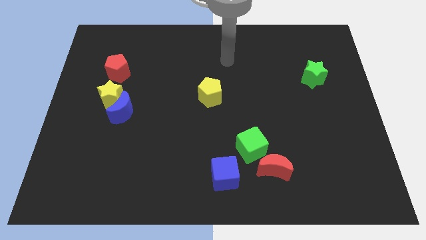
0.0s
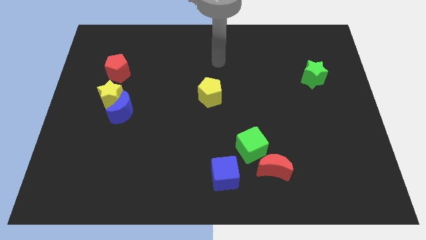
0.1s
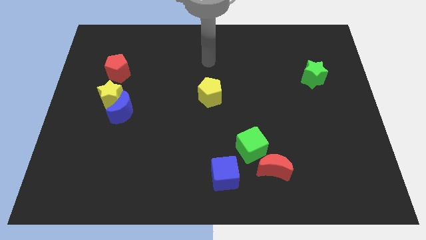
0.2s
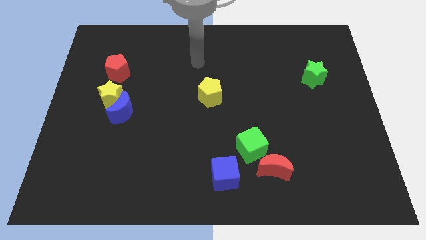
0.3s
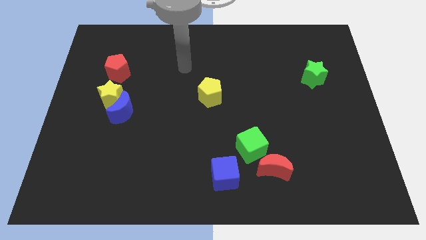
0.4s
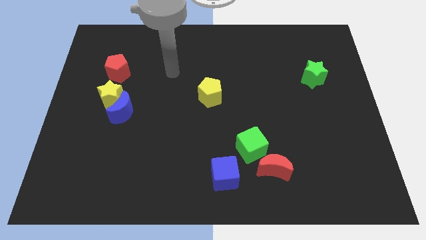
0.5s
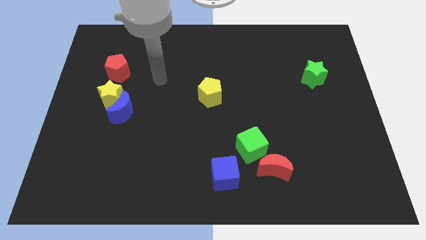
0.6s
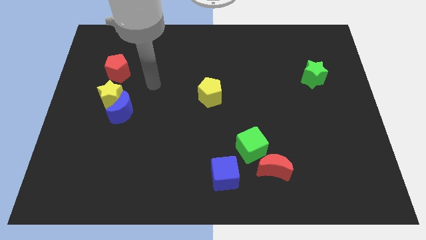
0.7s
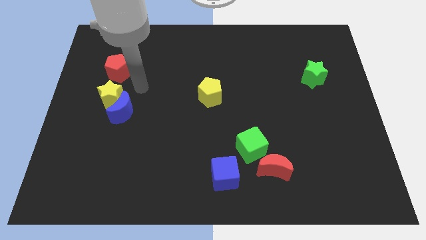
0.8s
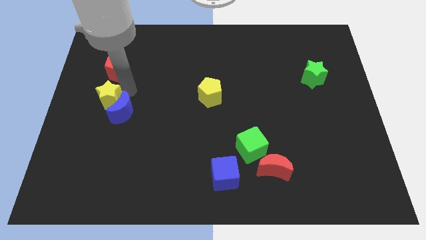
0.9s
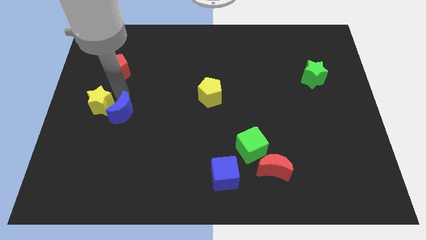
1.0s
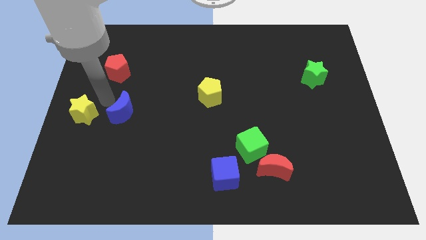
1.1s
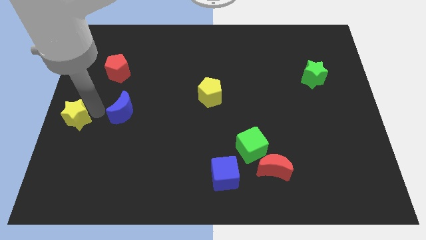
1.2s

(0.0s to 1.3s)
move the blue moon away from the yellow star

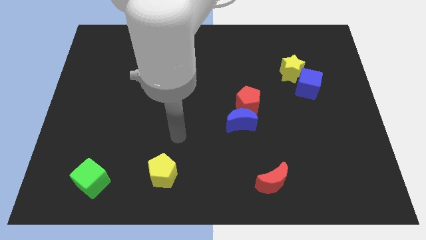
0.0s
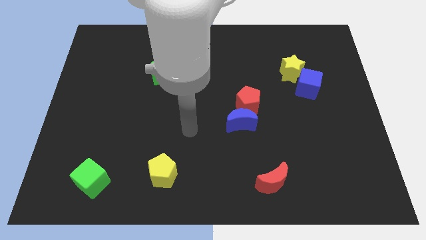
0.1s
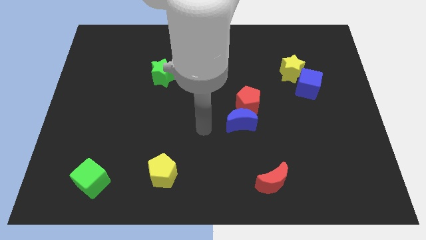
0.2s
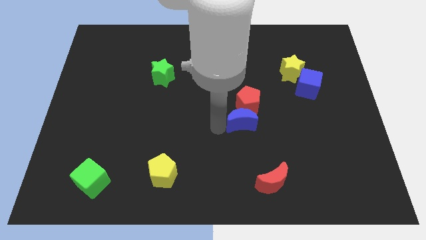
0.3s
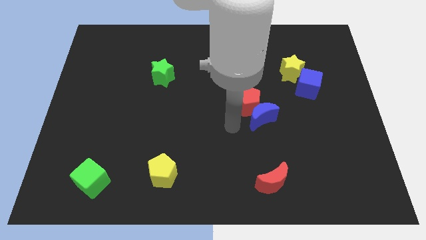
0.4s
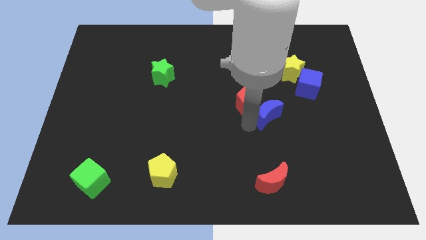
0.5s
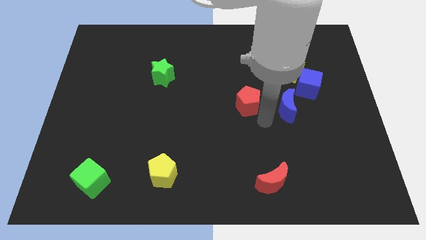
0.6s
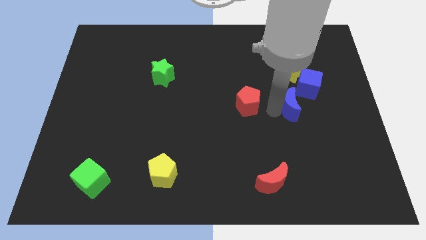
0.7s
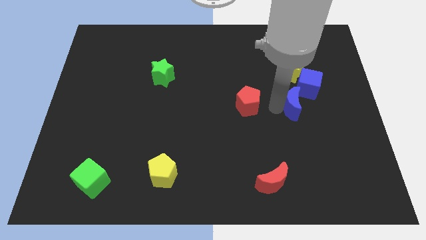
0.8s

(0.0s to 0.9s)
move the red pentagon away from the blue moon

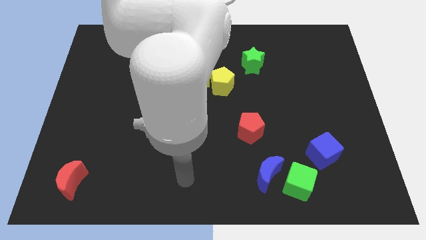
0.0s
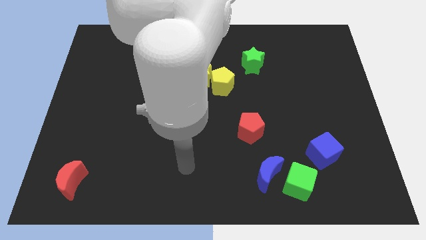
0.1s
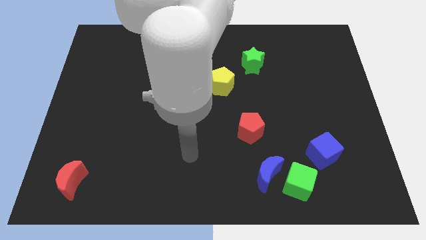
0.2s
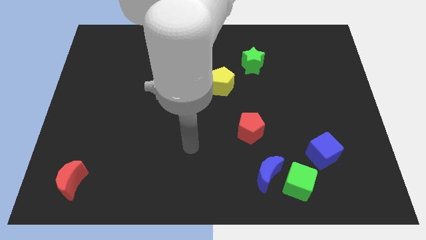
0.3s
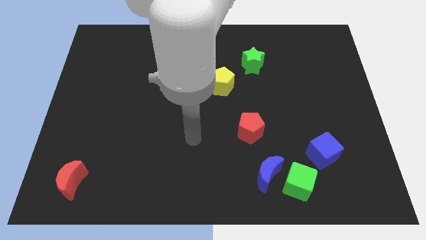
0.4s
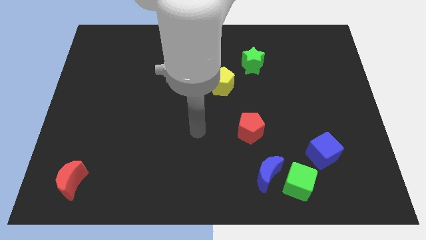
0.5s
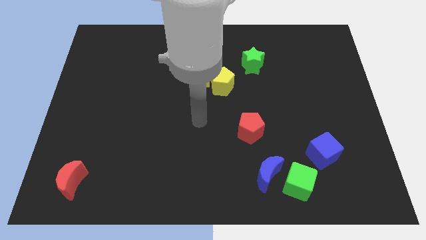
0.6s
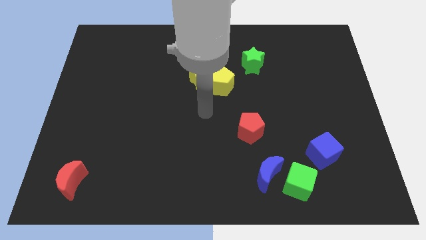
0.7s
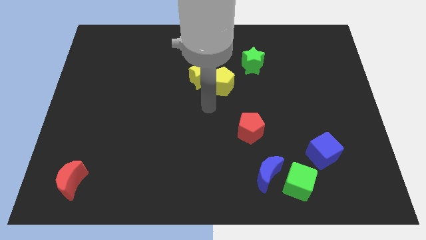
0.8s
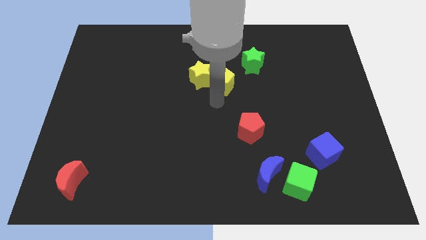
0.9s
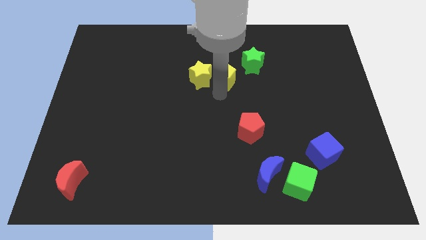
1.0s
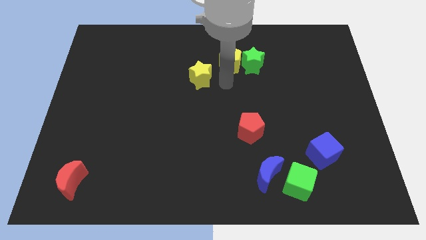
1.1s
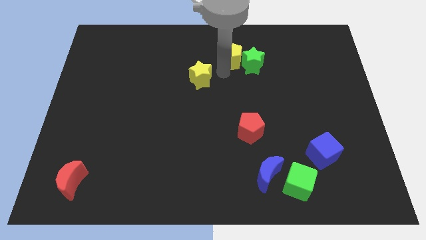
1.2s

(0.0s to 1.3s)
move the yellow star away from the yellow pentagon

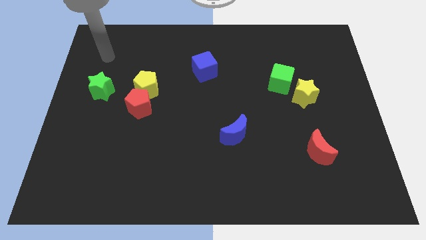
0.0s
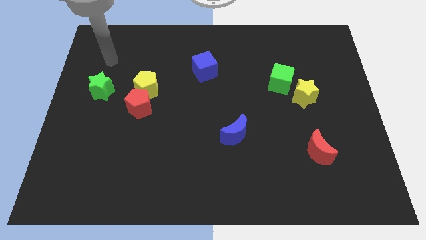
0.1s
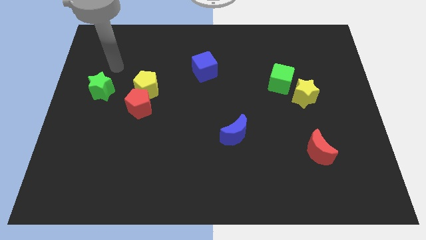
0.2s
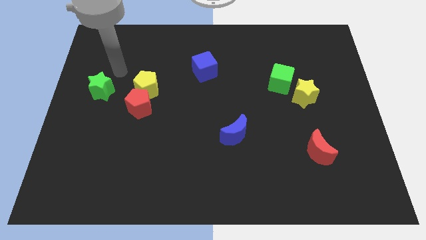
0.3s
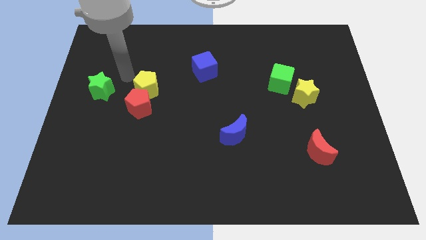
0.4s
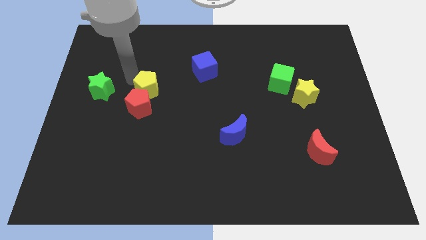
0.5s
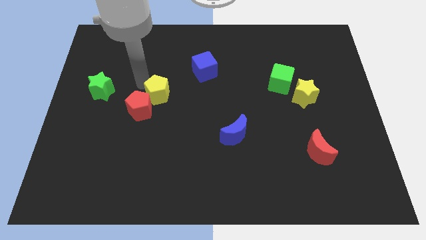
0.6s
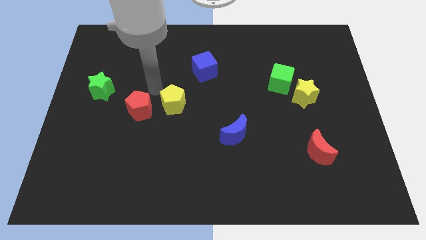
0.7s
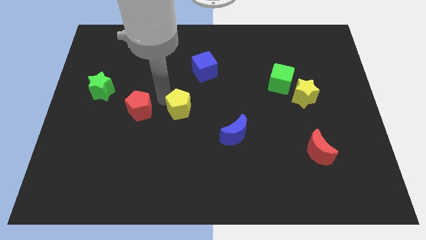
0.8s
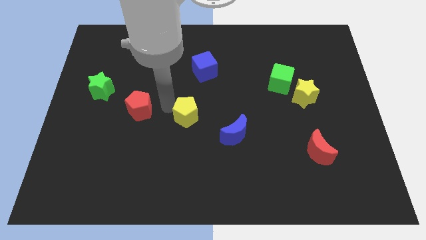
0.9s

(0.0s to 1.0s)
separate the red pentagon from the yellow pentagon

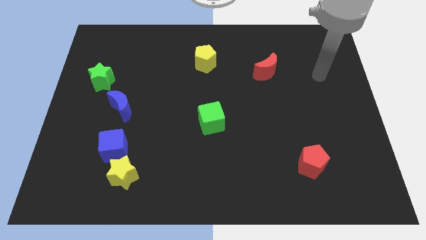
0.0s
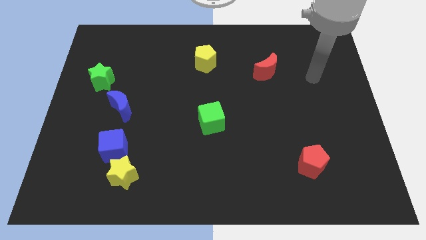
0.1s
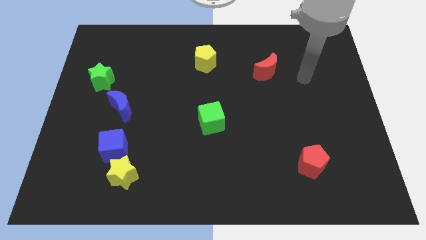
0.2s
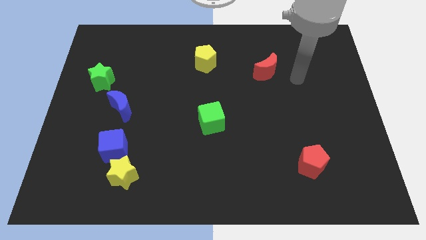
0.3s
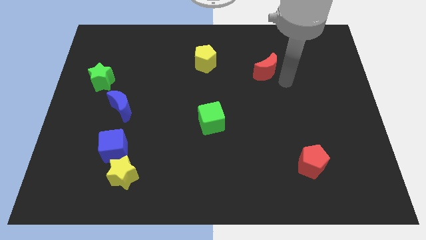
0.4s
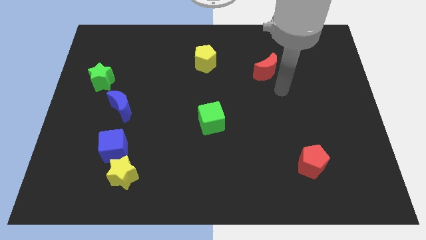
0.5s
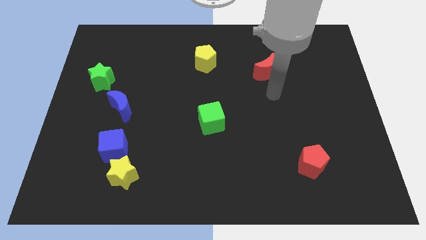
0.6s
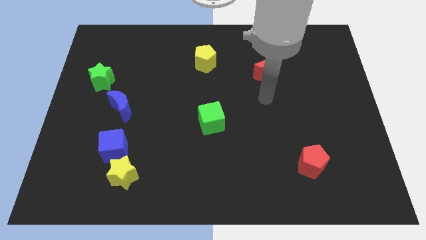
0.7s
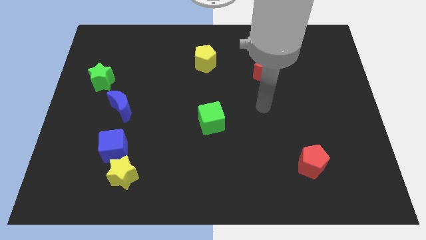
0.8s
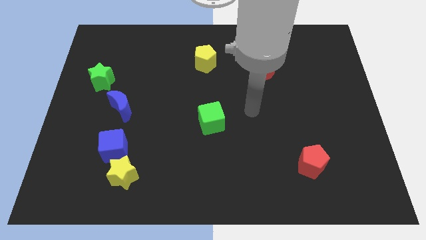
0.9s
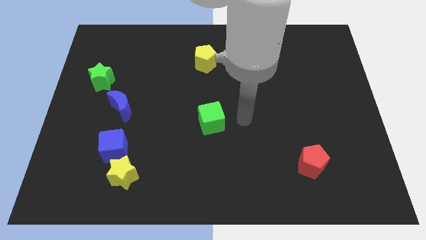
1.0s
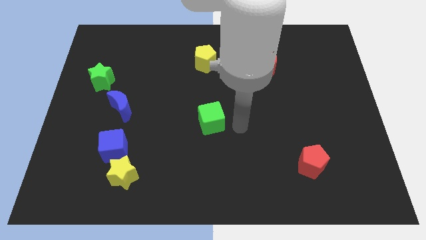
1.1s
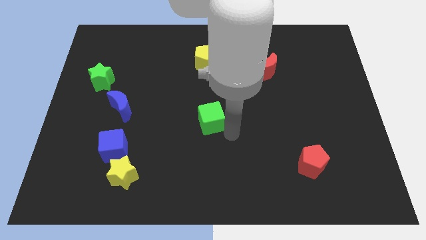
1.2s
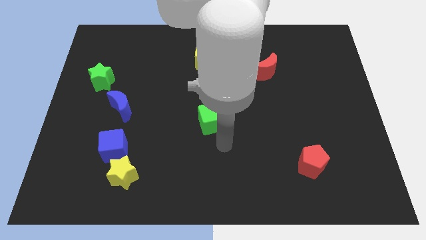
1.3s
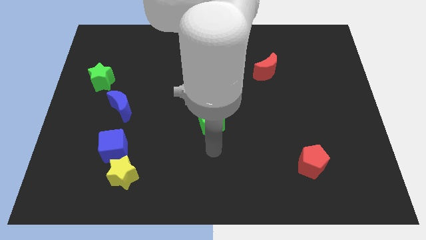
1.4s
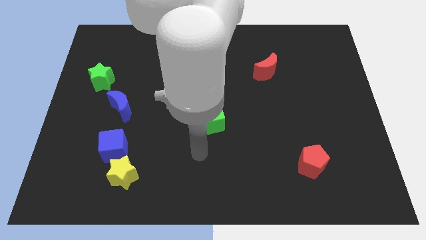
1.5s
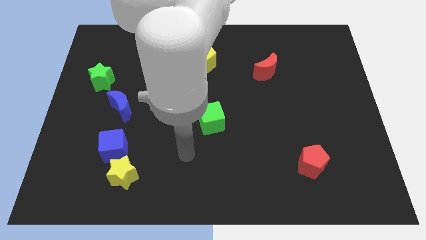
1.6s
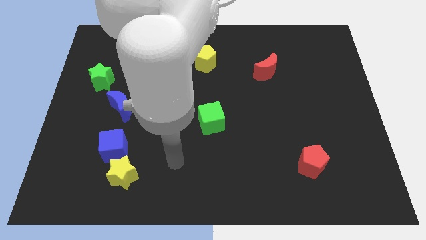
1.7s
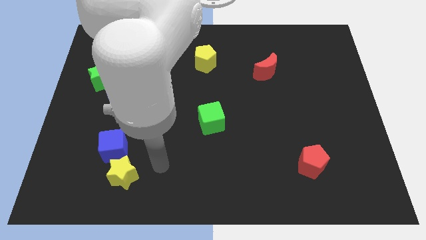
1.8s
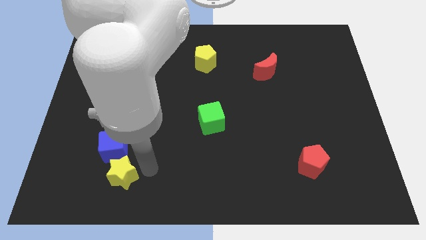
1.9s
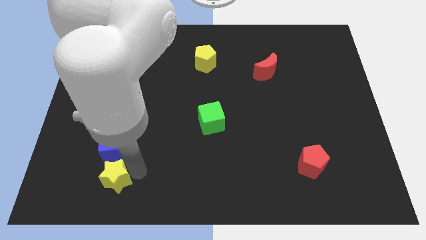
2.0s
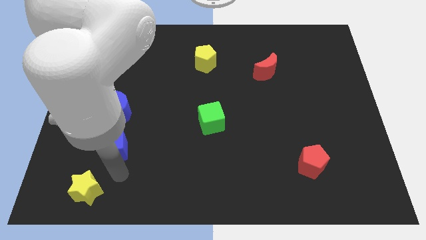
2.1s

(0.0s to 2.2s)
separate the blue cube from the yellow star

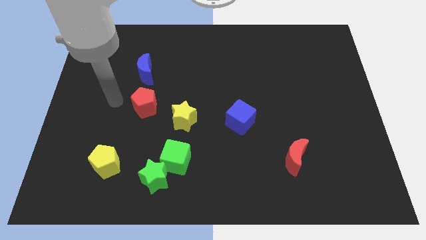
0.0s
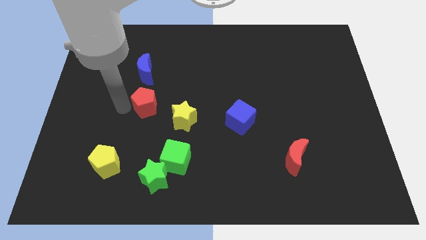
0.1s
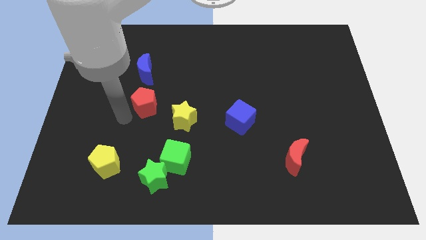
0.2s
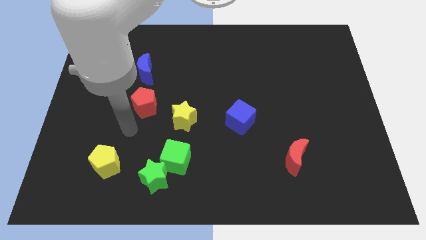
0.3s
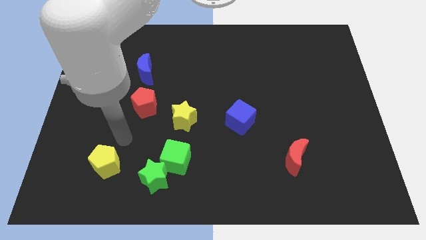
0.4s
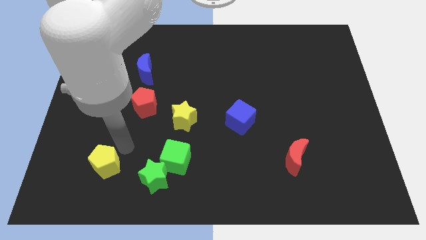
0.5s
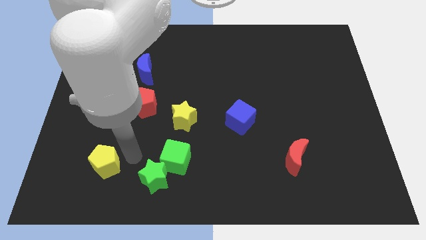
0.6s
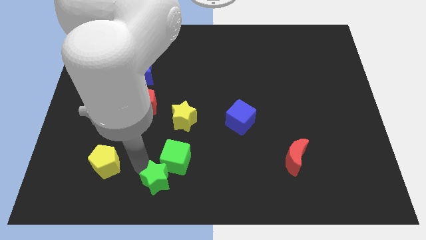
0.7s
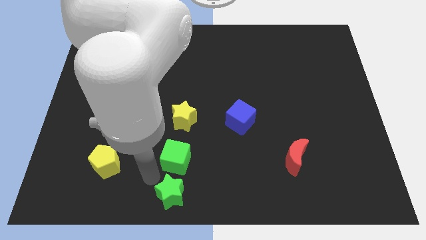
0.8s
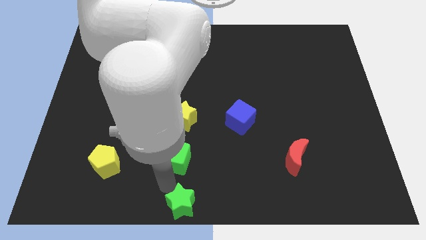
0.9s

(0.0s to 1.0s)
separate the green cube from the green star

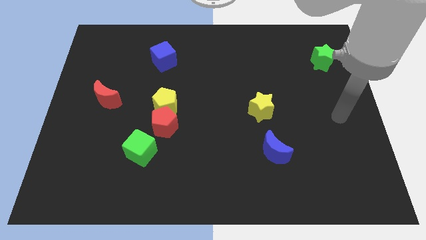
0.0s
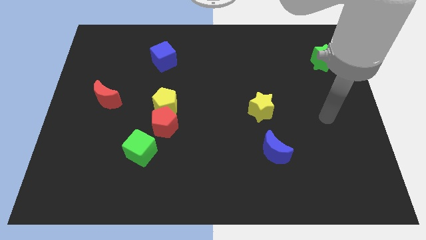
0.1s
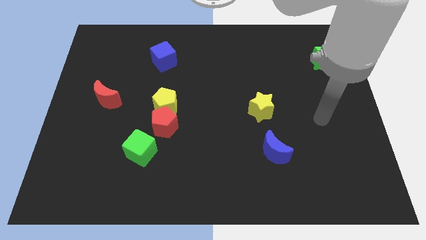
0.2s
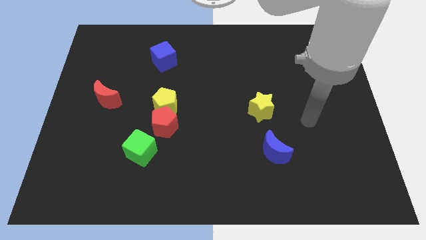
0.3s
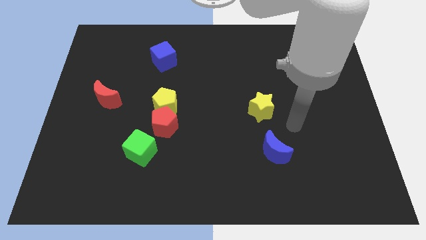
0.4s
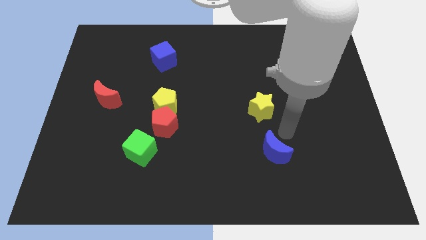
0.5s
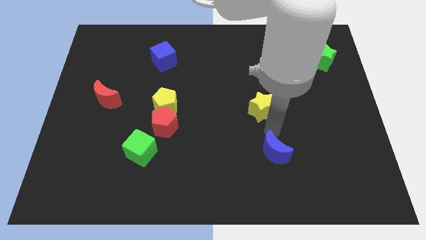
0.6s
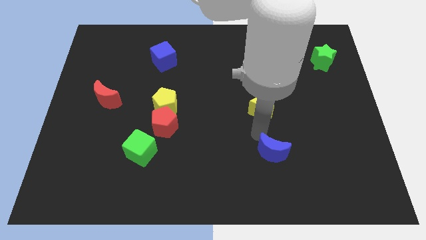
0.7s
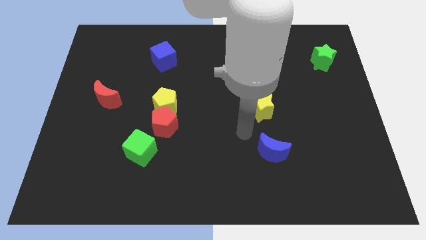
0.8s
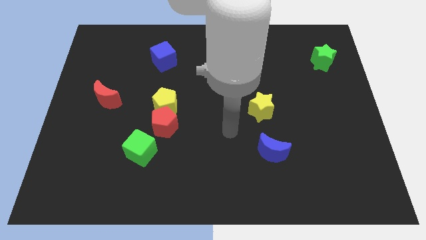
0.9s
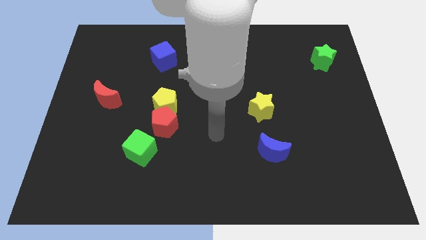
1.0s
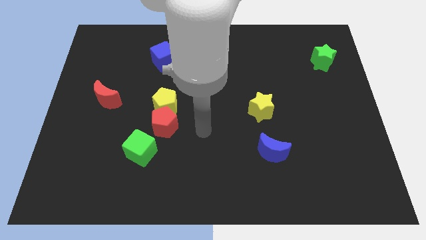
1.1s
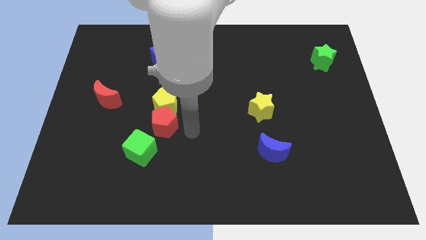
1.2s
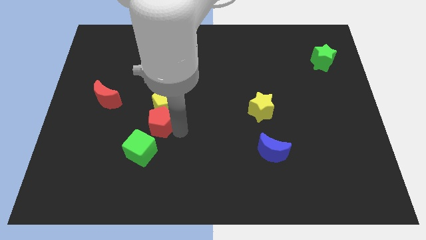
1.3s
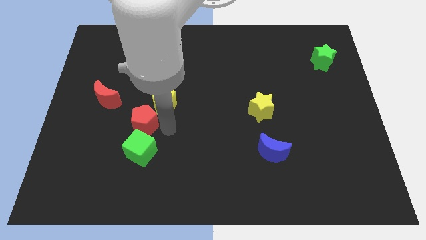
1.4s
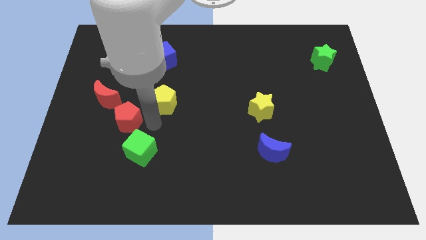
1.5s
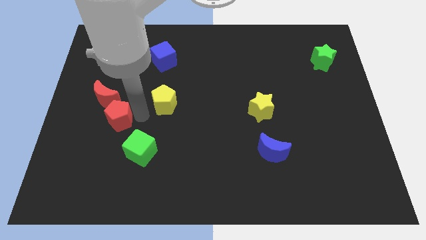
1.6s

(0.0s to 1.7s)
move the yellow pentagon away from the red pentagon
